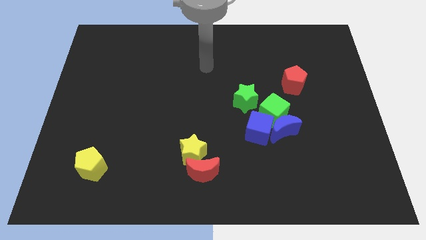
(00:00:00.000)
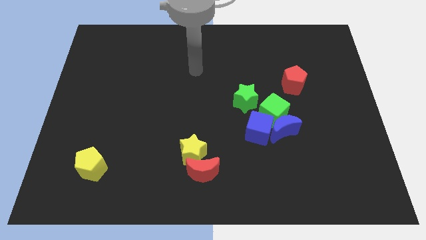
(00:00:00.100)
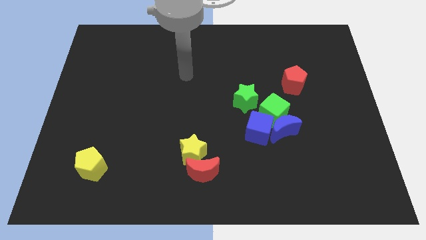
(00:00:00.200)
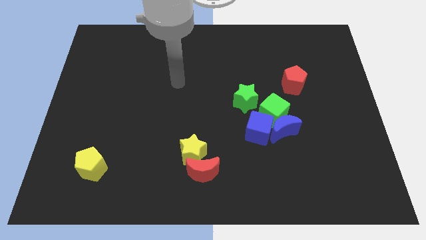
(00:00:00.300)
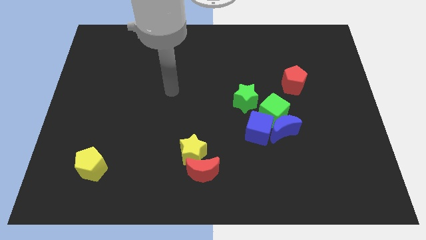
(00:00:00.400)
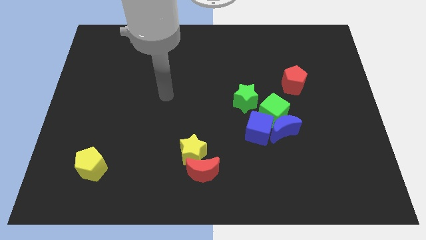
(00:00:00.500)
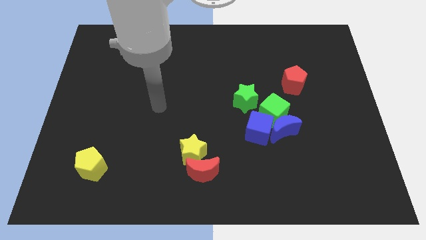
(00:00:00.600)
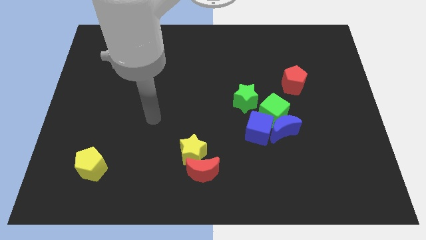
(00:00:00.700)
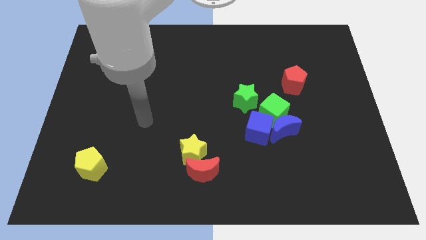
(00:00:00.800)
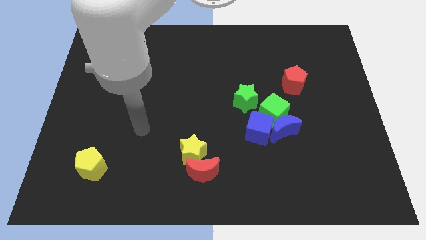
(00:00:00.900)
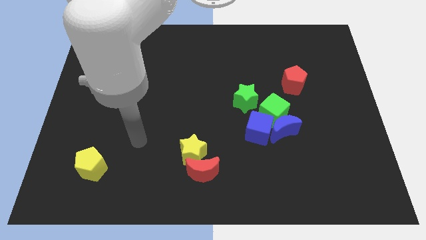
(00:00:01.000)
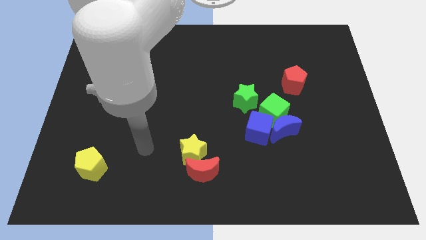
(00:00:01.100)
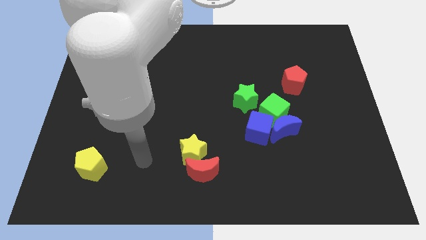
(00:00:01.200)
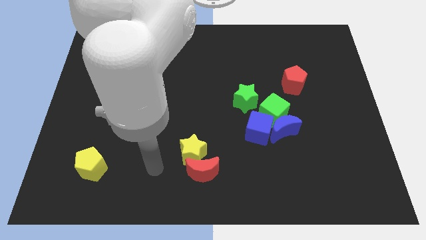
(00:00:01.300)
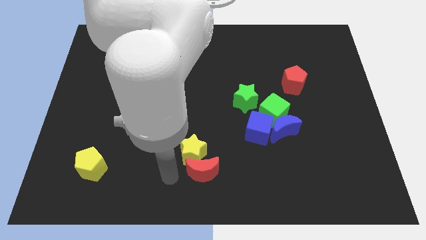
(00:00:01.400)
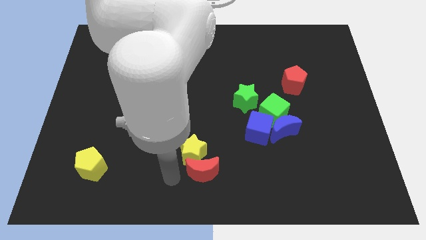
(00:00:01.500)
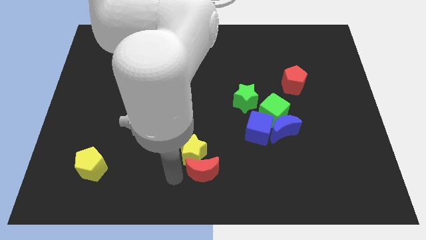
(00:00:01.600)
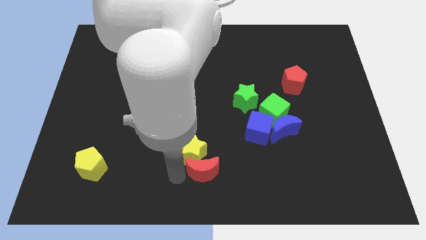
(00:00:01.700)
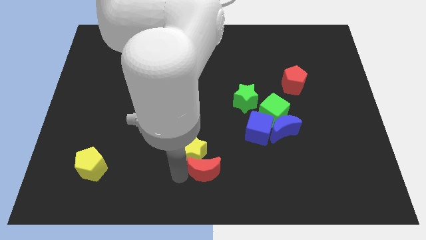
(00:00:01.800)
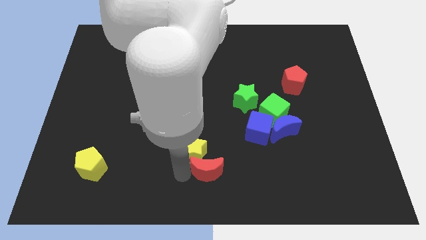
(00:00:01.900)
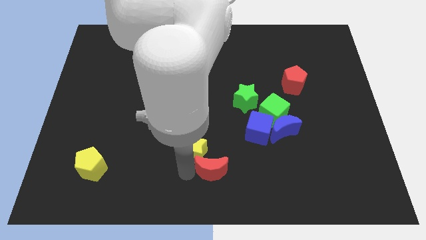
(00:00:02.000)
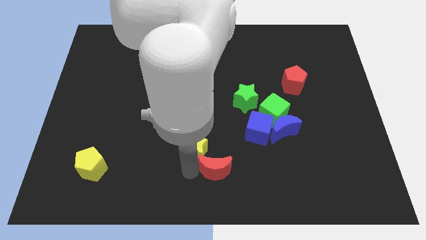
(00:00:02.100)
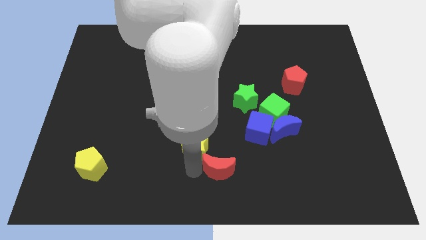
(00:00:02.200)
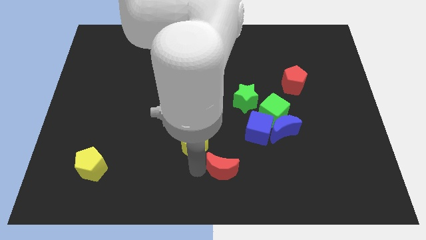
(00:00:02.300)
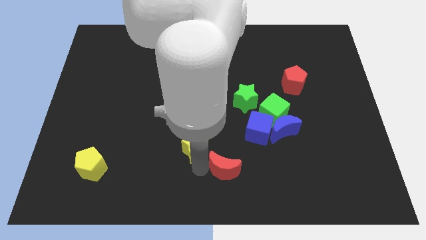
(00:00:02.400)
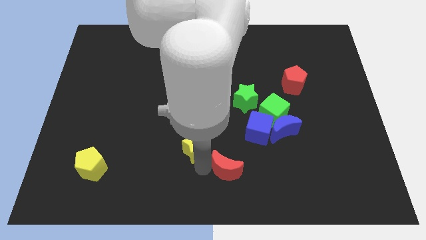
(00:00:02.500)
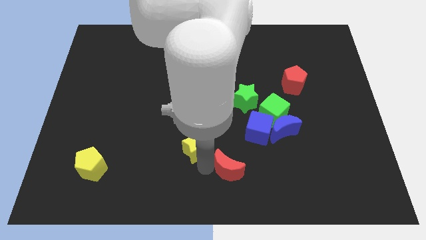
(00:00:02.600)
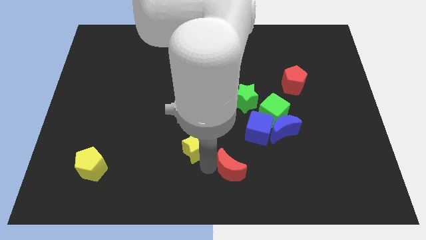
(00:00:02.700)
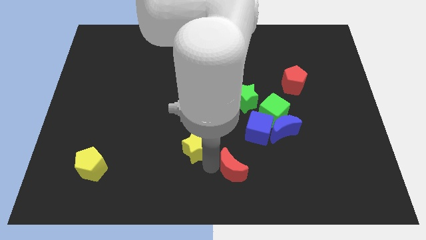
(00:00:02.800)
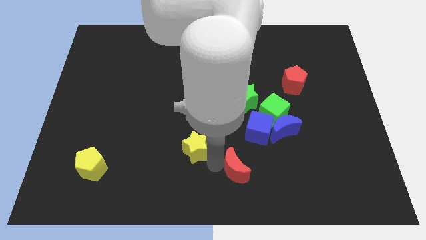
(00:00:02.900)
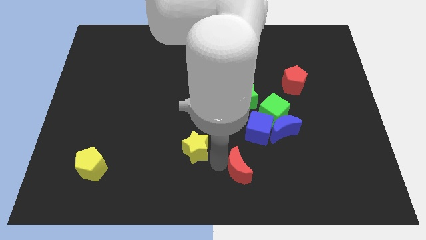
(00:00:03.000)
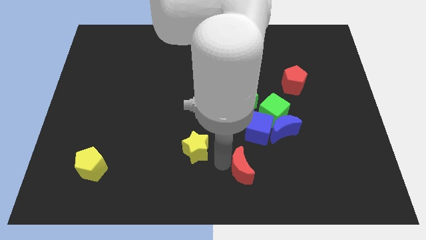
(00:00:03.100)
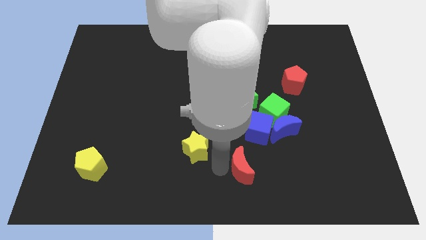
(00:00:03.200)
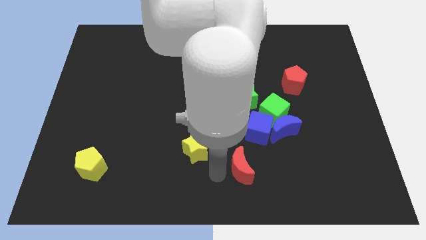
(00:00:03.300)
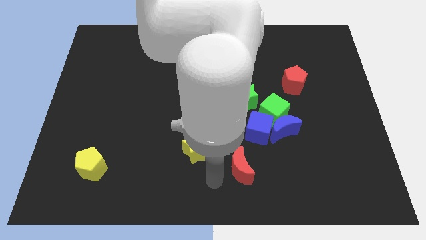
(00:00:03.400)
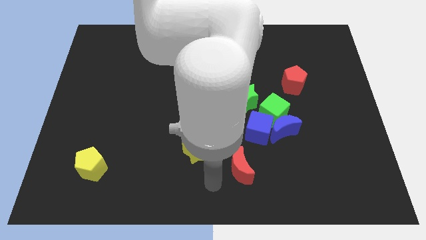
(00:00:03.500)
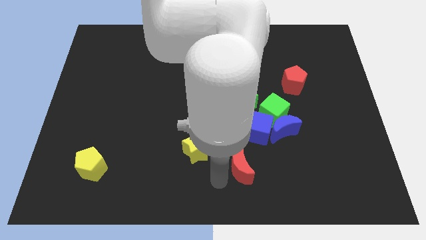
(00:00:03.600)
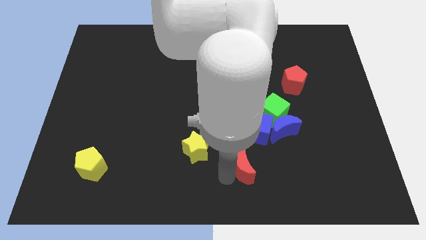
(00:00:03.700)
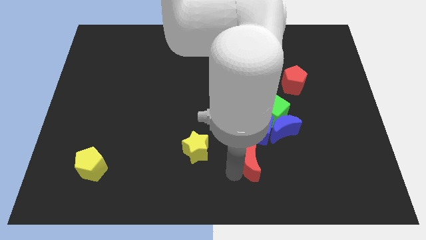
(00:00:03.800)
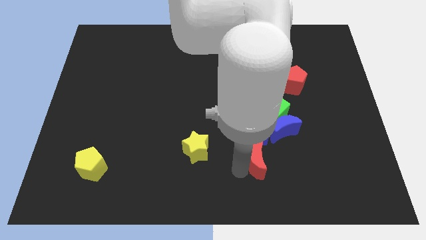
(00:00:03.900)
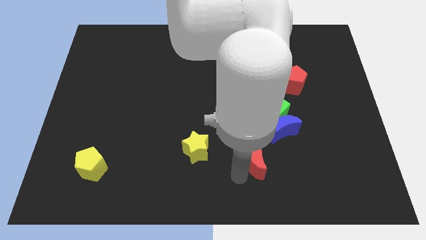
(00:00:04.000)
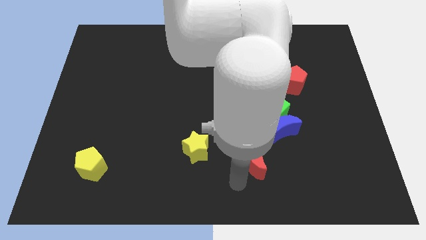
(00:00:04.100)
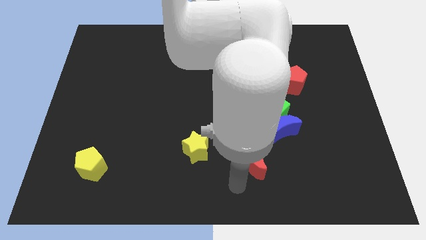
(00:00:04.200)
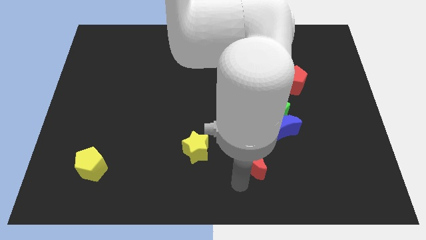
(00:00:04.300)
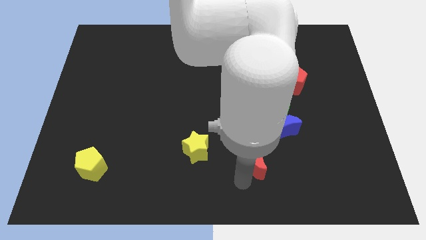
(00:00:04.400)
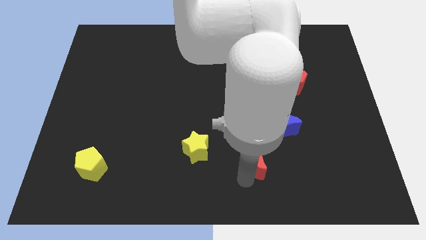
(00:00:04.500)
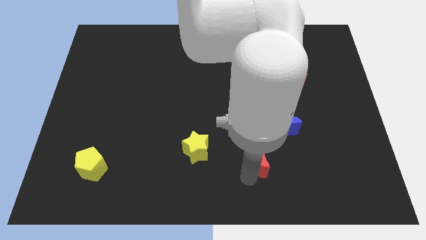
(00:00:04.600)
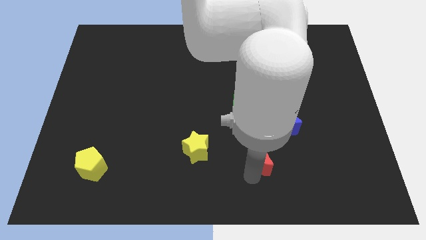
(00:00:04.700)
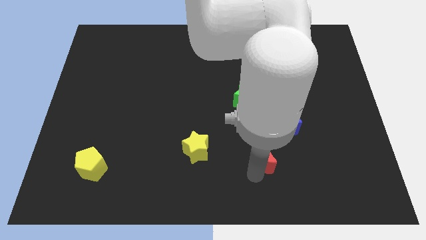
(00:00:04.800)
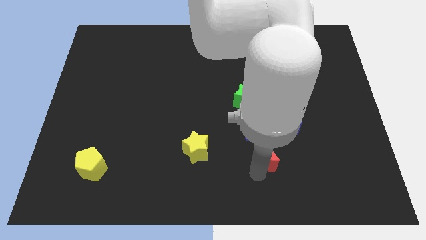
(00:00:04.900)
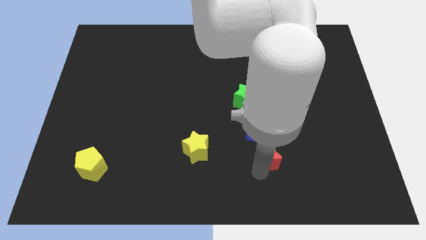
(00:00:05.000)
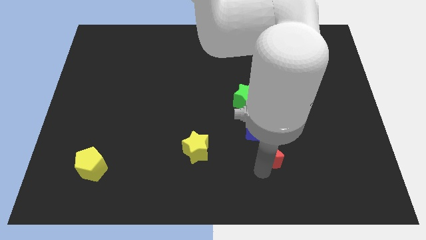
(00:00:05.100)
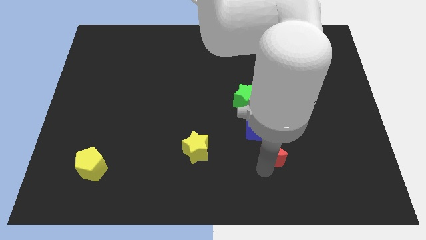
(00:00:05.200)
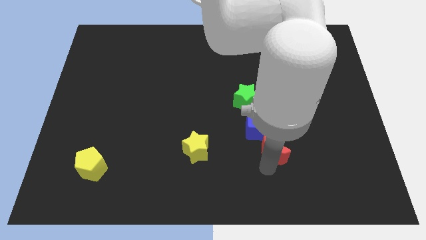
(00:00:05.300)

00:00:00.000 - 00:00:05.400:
slide the red moon close to the blue moon

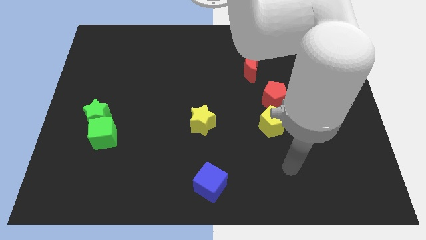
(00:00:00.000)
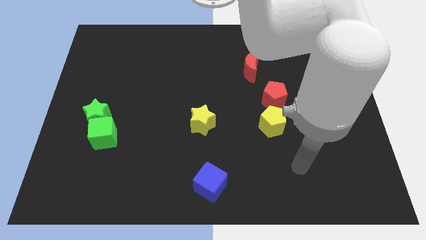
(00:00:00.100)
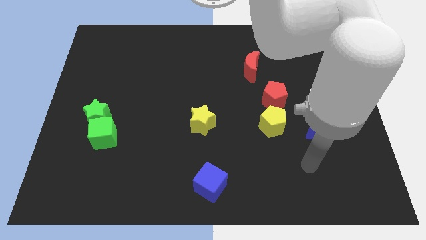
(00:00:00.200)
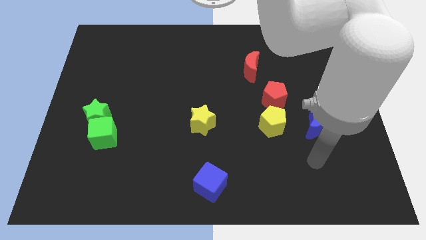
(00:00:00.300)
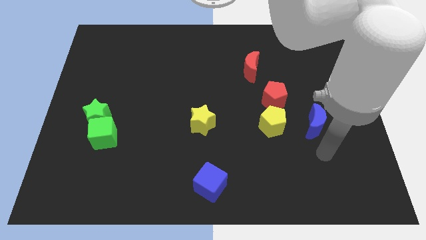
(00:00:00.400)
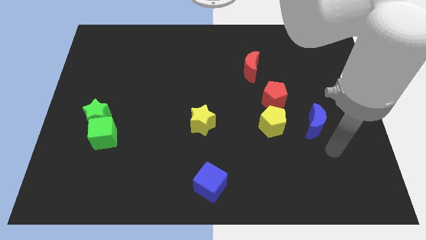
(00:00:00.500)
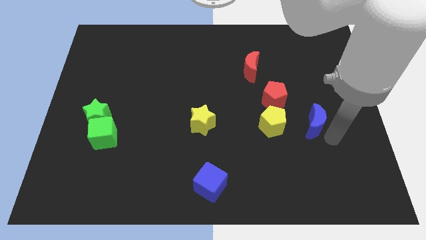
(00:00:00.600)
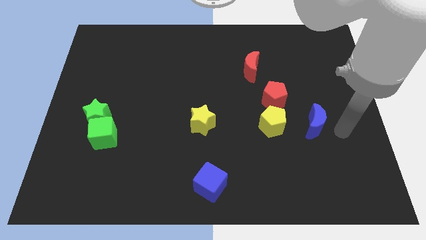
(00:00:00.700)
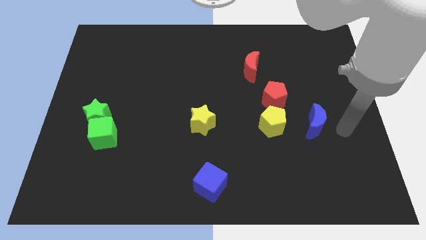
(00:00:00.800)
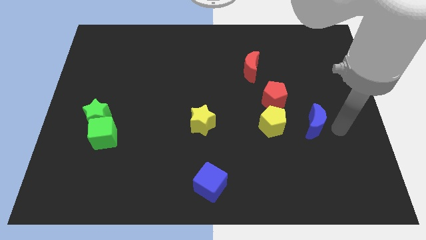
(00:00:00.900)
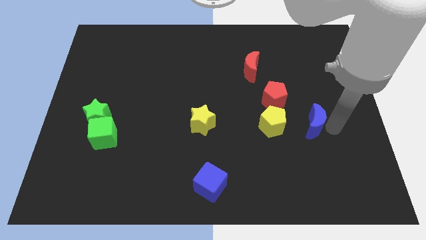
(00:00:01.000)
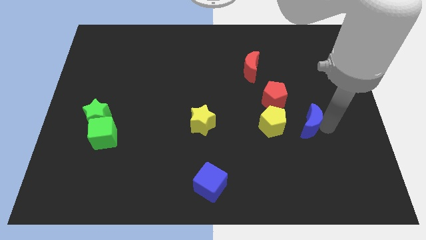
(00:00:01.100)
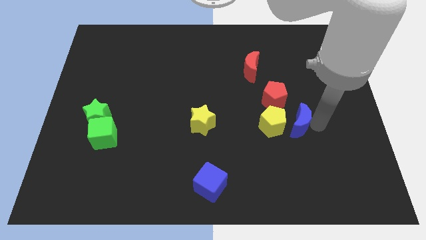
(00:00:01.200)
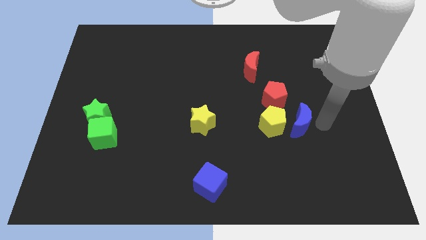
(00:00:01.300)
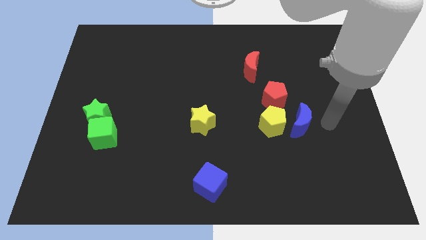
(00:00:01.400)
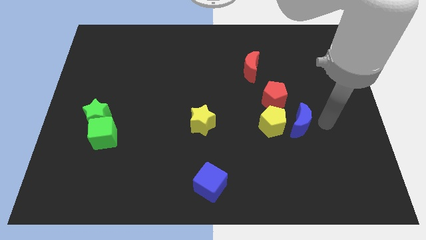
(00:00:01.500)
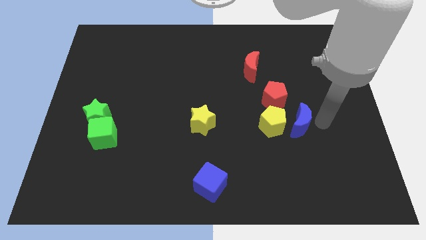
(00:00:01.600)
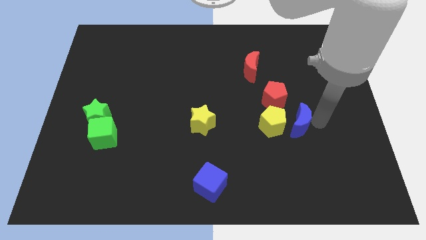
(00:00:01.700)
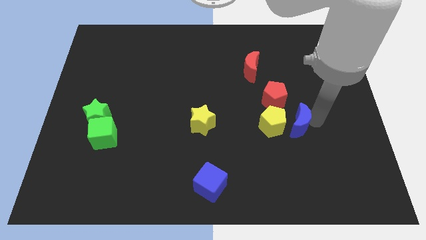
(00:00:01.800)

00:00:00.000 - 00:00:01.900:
push the blue moon towards the yellow pentagon

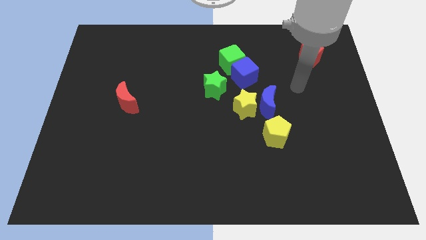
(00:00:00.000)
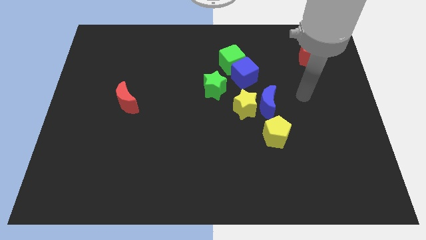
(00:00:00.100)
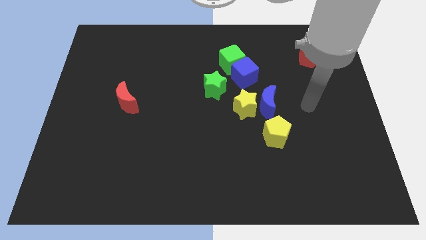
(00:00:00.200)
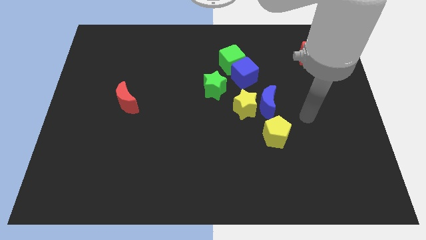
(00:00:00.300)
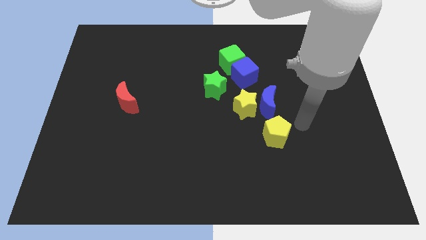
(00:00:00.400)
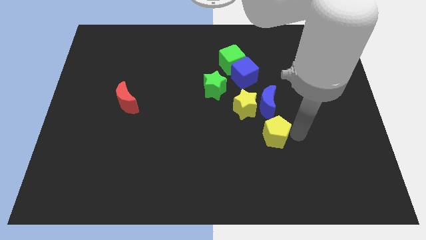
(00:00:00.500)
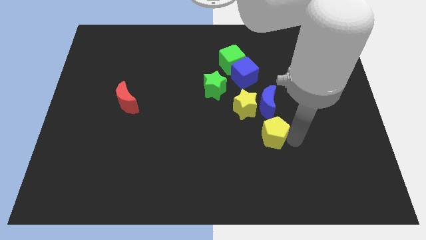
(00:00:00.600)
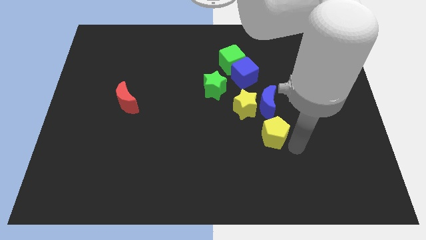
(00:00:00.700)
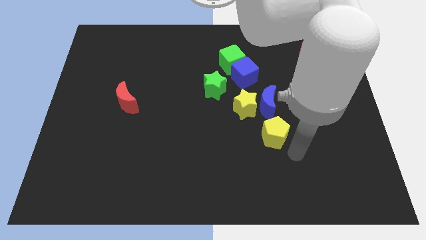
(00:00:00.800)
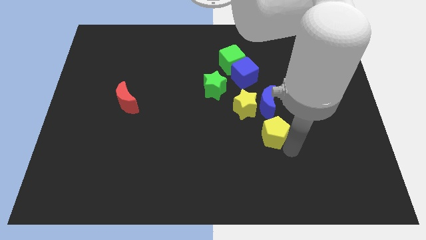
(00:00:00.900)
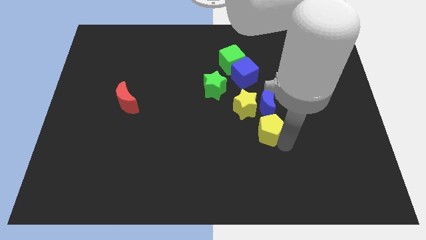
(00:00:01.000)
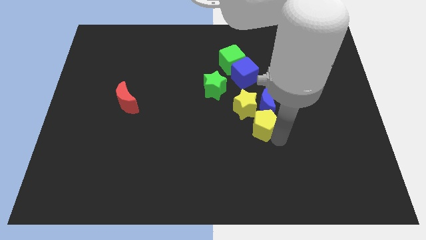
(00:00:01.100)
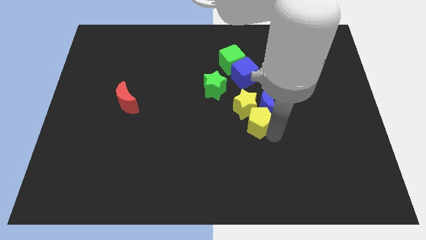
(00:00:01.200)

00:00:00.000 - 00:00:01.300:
put the yellow pentagon towards the yellow star
